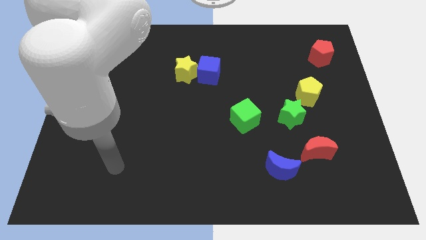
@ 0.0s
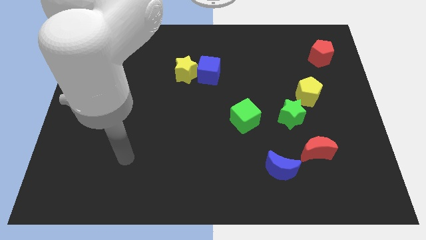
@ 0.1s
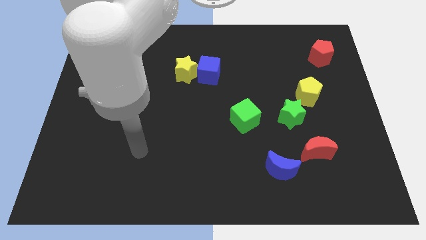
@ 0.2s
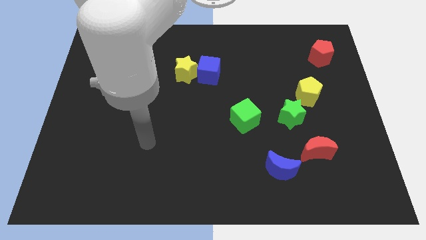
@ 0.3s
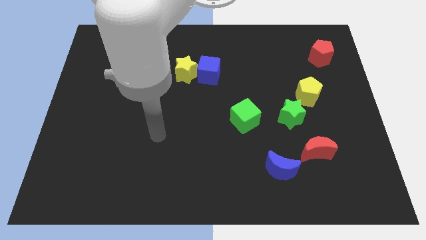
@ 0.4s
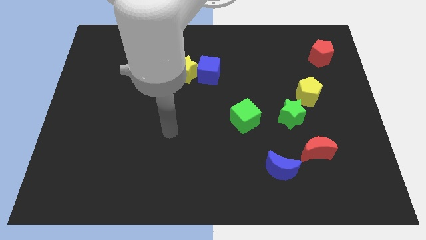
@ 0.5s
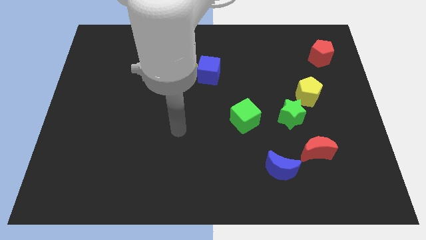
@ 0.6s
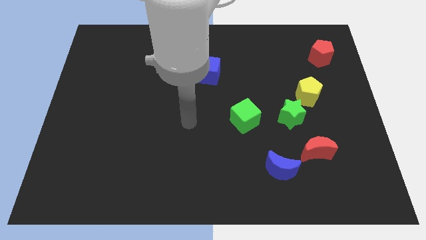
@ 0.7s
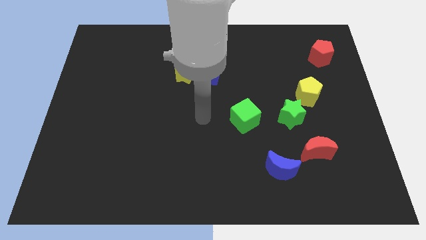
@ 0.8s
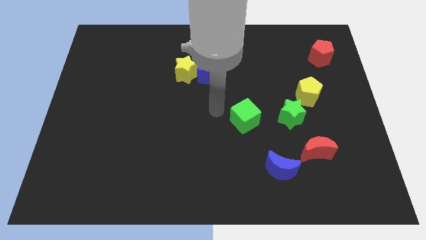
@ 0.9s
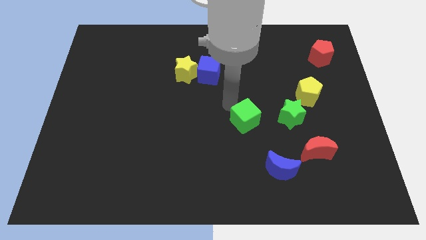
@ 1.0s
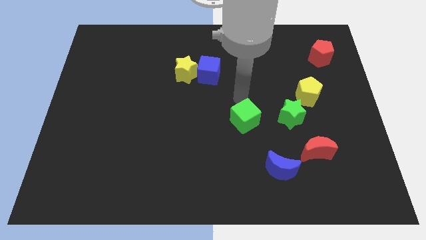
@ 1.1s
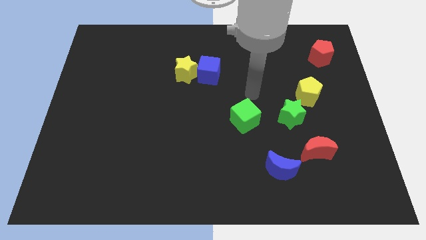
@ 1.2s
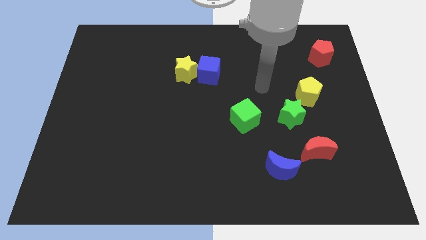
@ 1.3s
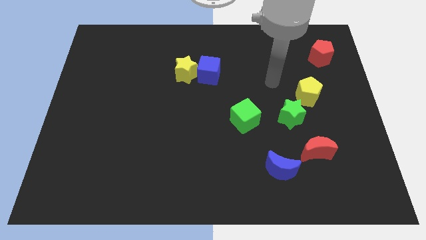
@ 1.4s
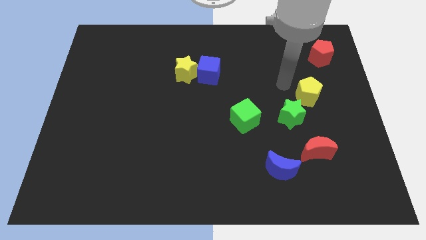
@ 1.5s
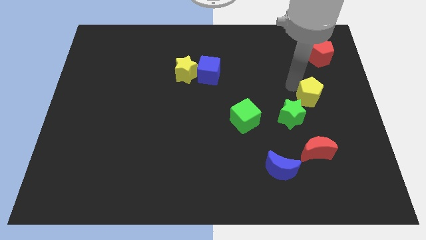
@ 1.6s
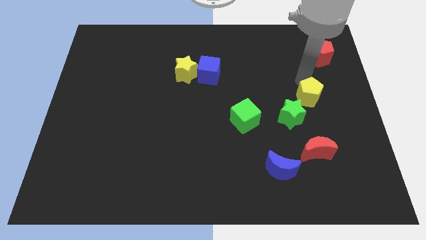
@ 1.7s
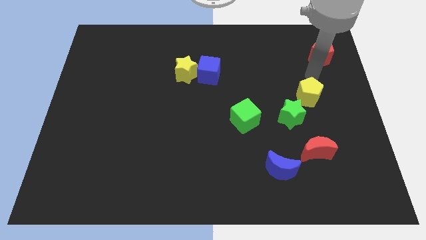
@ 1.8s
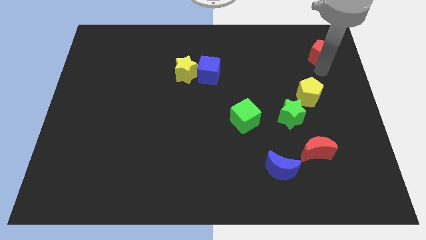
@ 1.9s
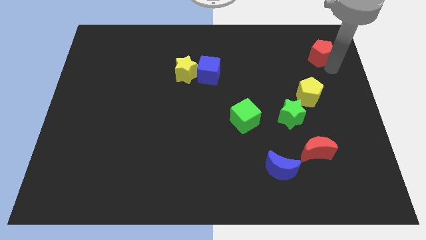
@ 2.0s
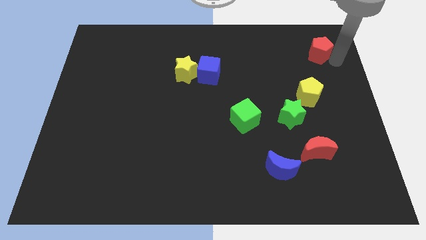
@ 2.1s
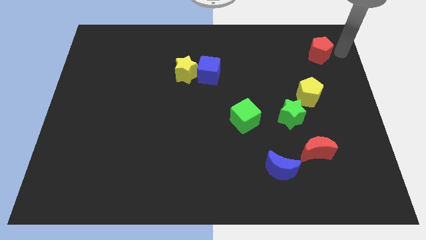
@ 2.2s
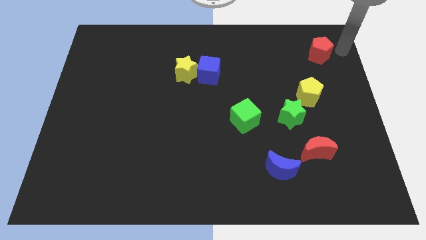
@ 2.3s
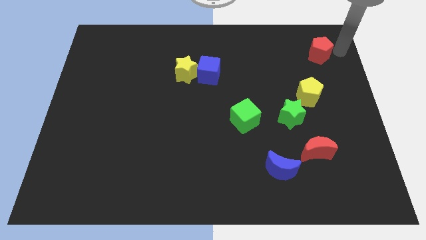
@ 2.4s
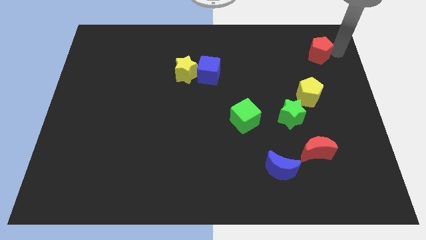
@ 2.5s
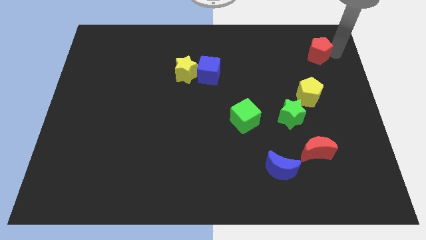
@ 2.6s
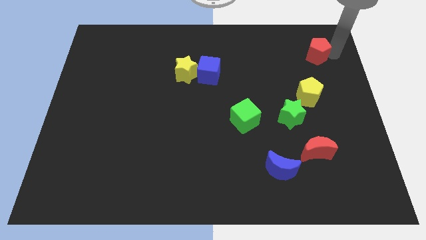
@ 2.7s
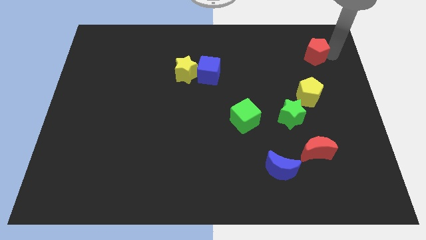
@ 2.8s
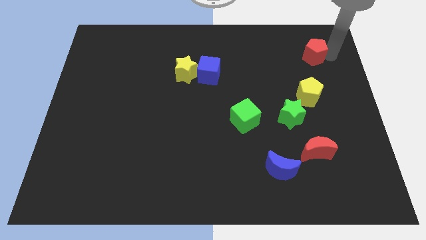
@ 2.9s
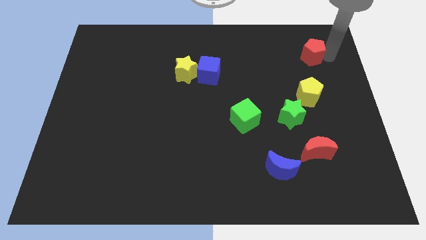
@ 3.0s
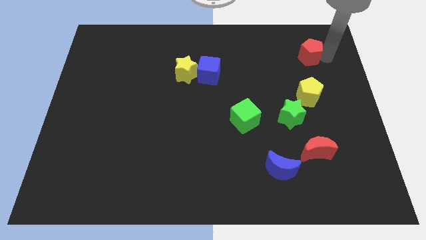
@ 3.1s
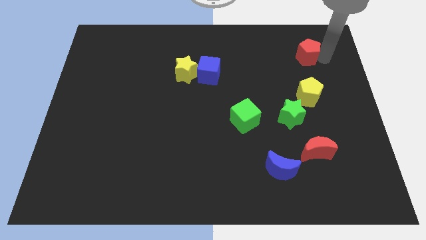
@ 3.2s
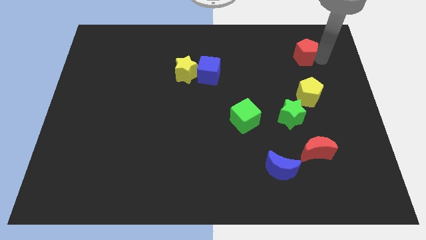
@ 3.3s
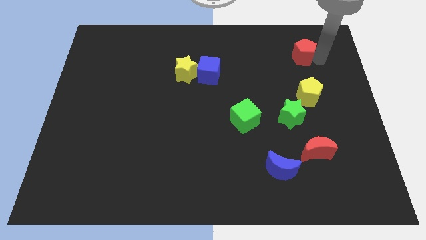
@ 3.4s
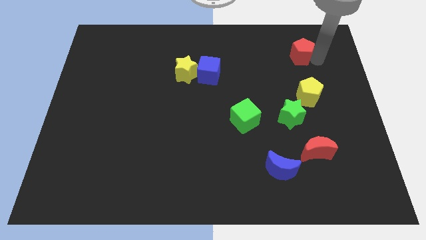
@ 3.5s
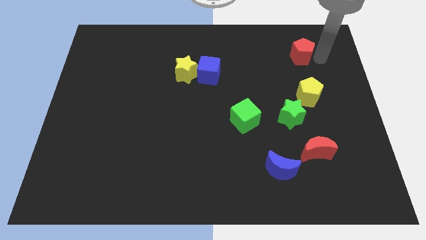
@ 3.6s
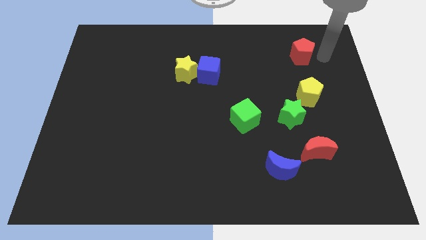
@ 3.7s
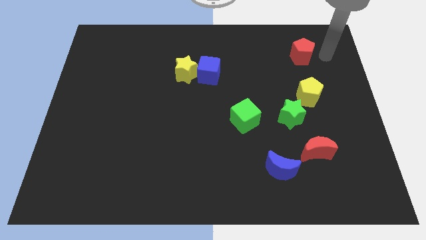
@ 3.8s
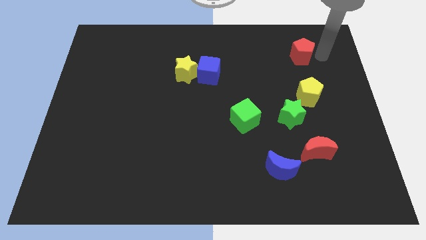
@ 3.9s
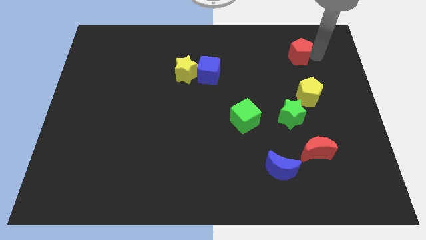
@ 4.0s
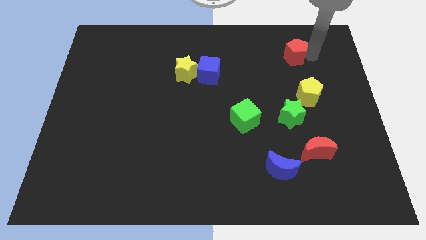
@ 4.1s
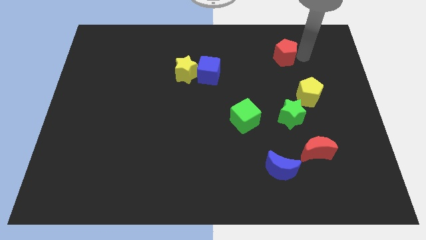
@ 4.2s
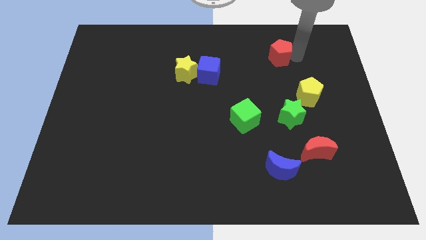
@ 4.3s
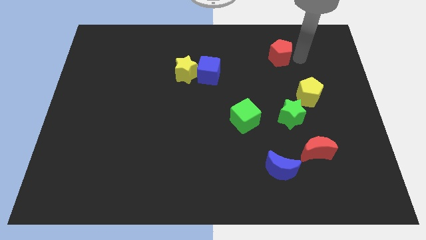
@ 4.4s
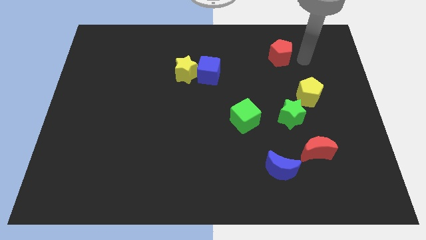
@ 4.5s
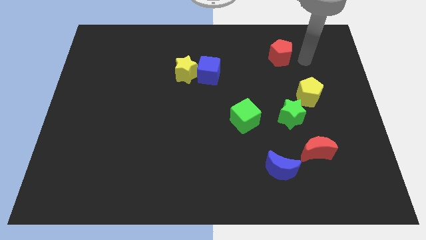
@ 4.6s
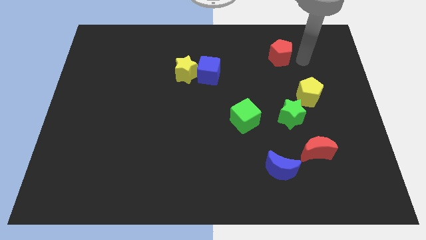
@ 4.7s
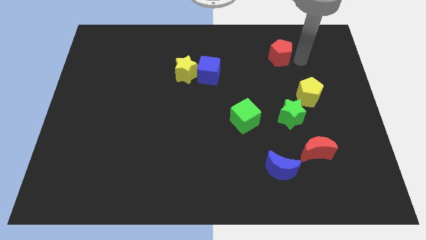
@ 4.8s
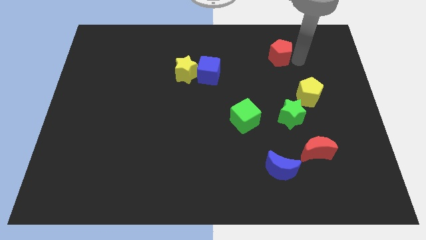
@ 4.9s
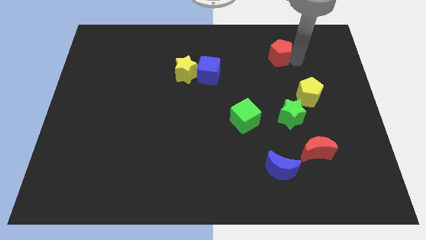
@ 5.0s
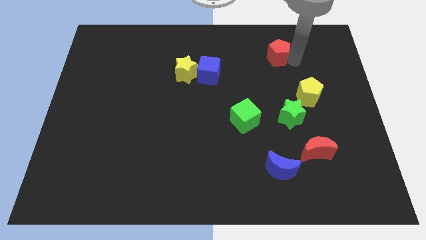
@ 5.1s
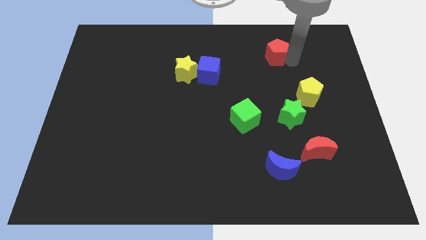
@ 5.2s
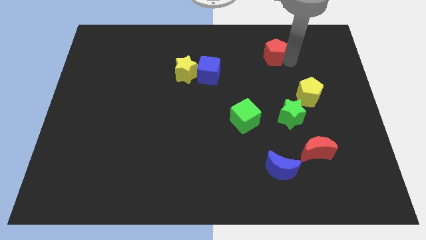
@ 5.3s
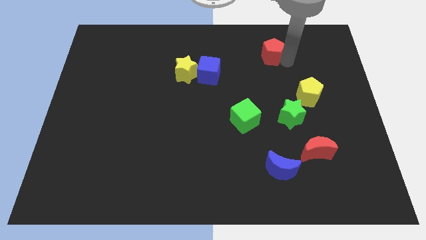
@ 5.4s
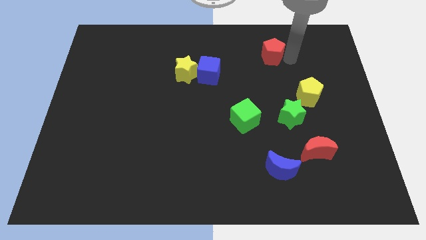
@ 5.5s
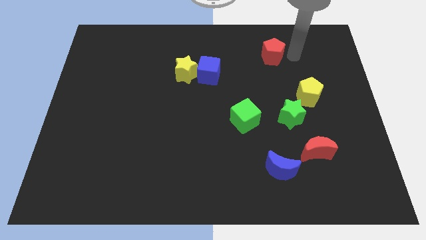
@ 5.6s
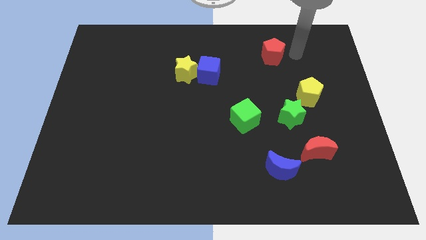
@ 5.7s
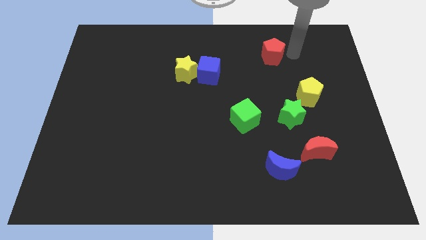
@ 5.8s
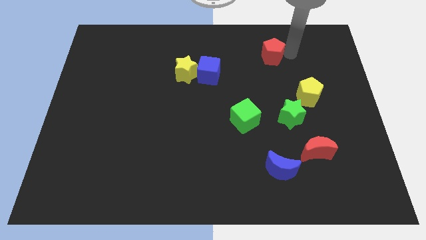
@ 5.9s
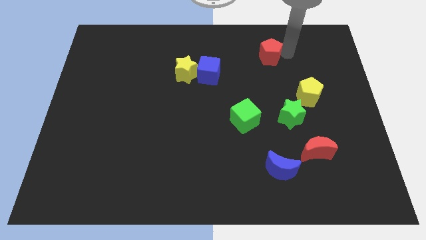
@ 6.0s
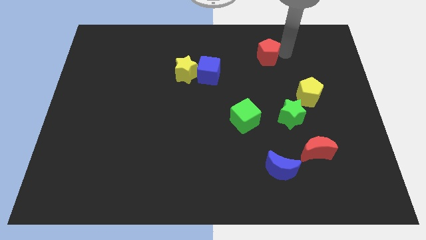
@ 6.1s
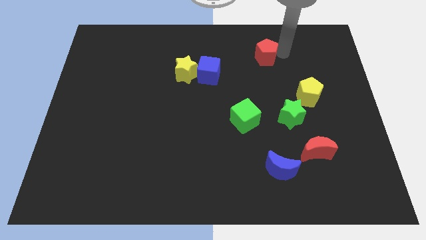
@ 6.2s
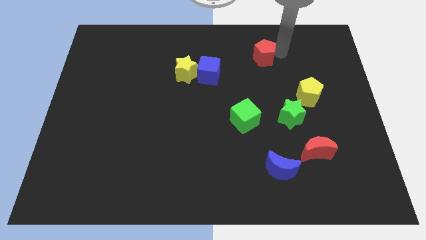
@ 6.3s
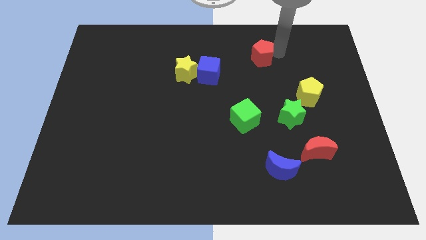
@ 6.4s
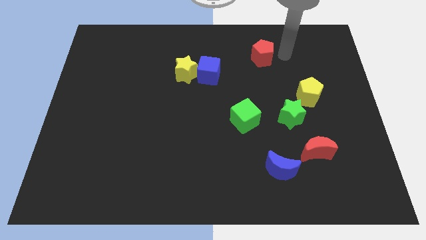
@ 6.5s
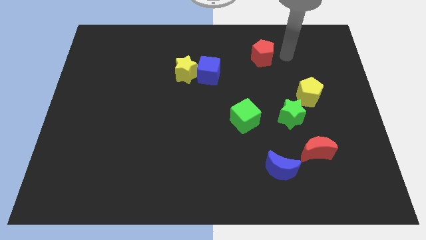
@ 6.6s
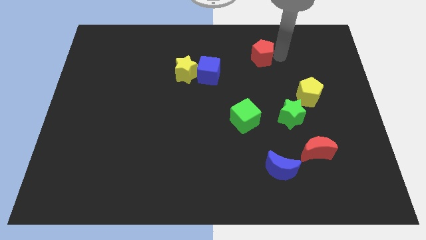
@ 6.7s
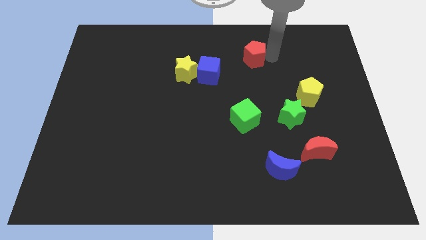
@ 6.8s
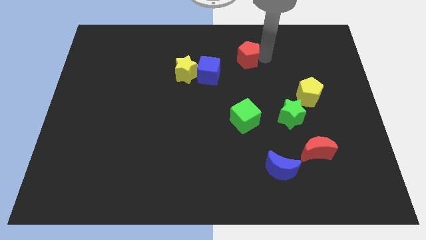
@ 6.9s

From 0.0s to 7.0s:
push the red pentagon diagonally up and to the right of the blue cube
